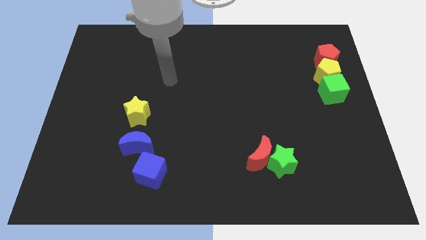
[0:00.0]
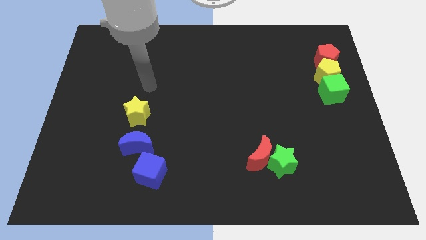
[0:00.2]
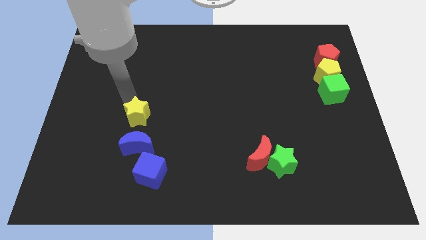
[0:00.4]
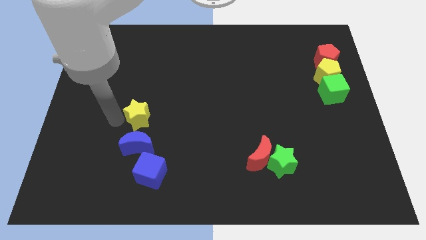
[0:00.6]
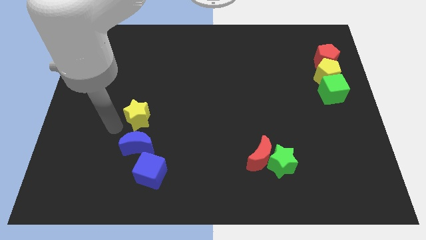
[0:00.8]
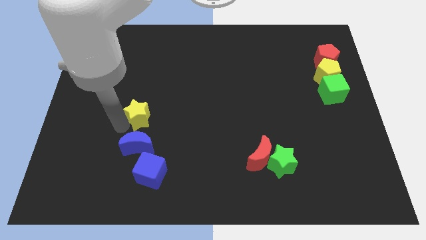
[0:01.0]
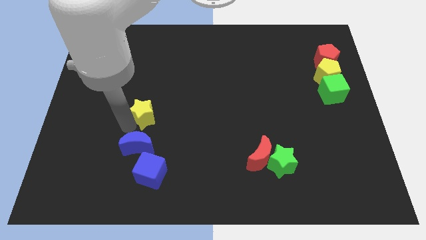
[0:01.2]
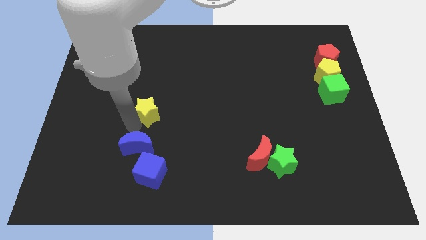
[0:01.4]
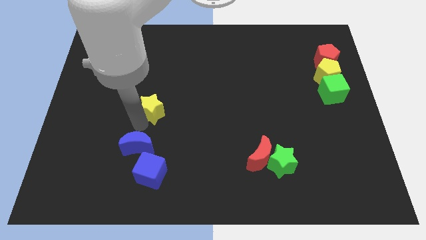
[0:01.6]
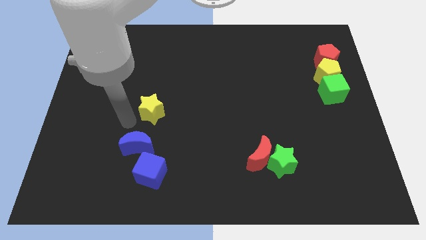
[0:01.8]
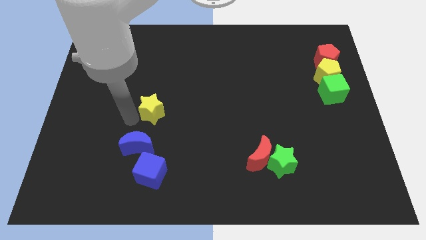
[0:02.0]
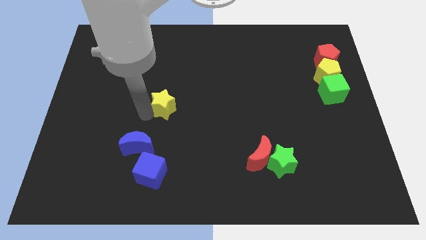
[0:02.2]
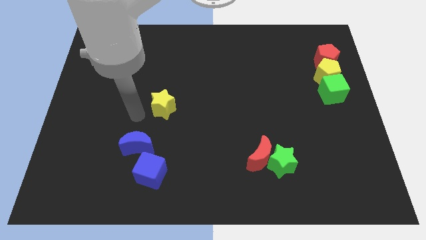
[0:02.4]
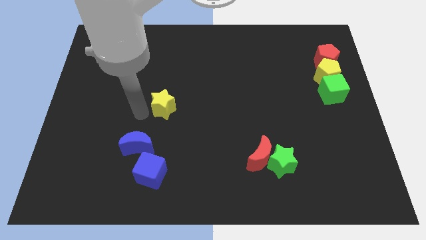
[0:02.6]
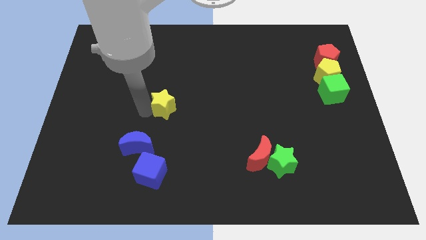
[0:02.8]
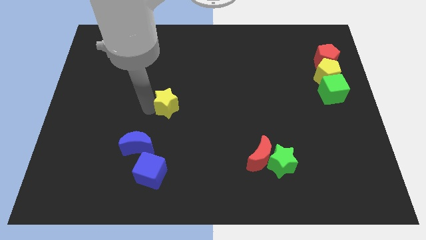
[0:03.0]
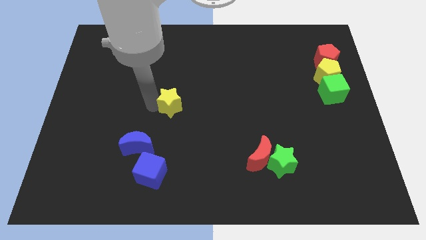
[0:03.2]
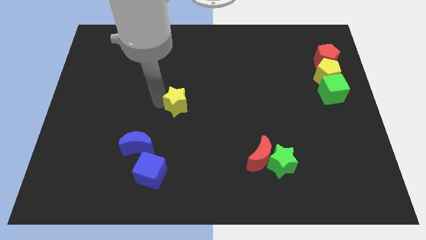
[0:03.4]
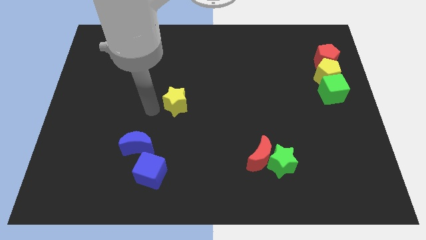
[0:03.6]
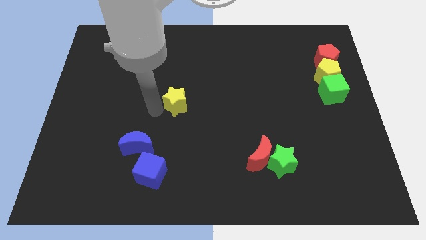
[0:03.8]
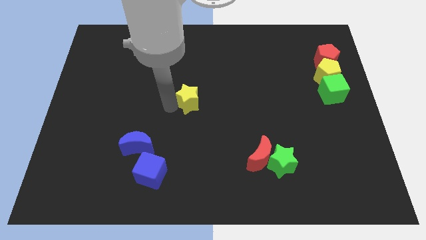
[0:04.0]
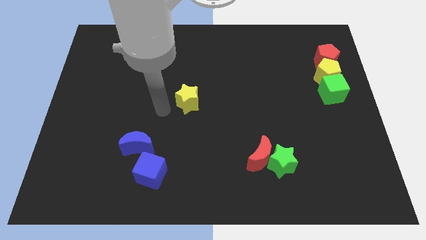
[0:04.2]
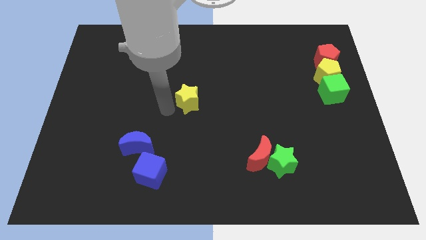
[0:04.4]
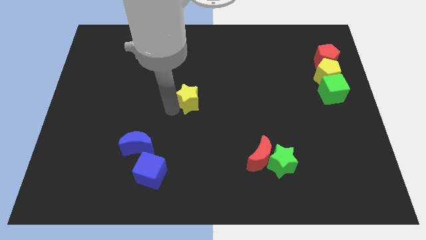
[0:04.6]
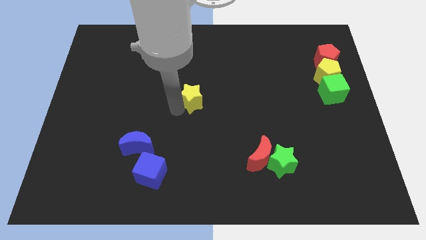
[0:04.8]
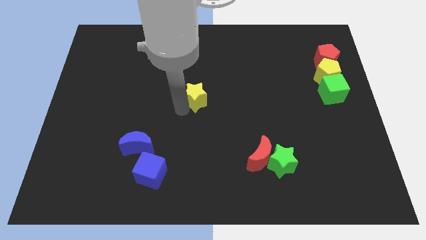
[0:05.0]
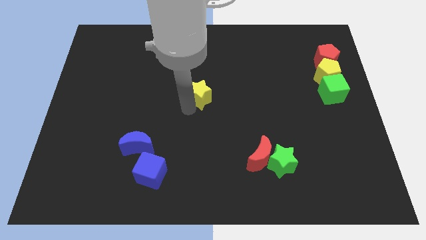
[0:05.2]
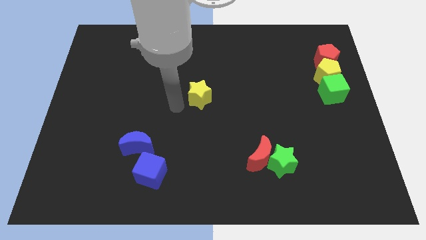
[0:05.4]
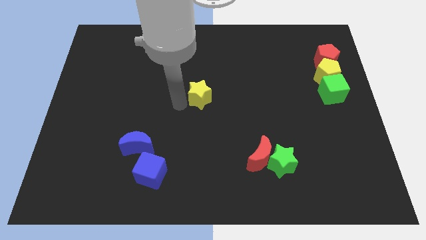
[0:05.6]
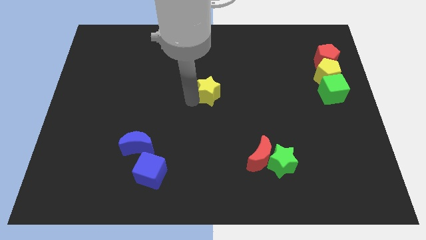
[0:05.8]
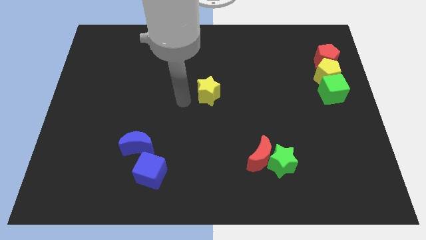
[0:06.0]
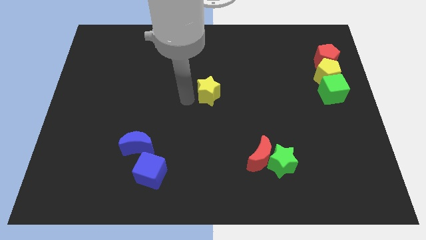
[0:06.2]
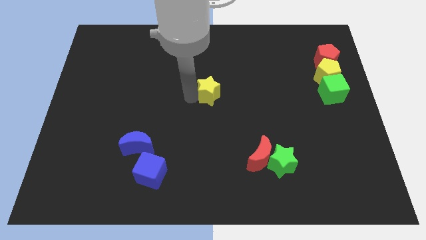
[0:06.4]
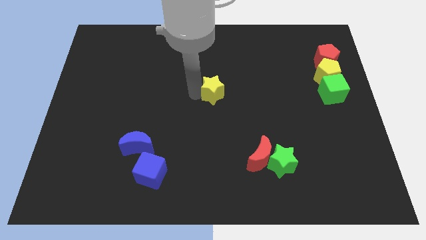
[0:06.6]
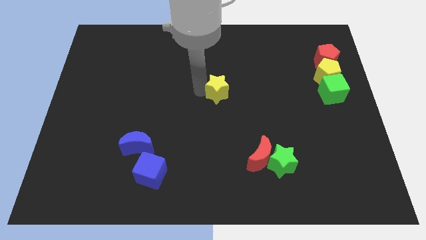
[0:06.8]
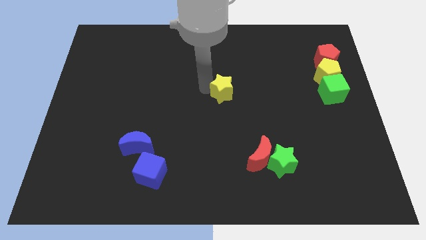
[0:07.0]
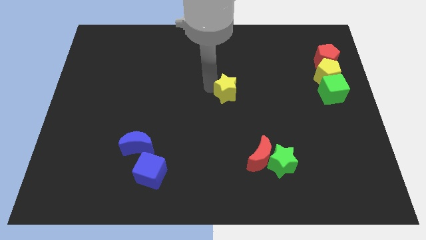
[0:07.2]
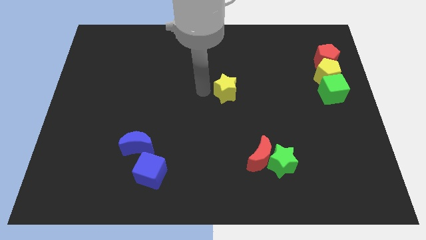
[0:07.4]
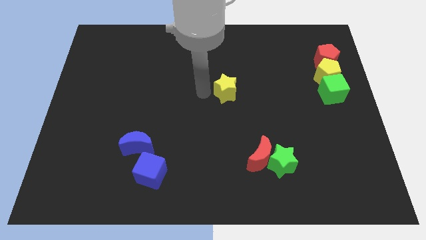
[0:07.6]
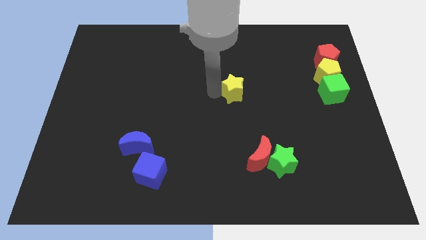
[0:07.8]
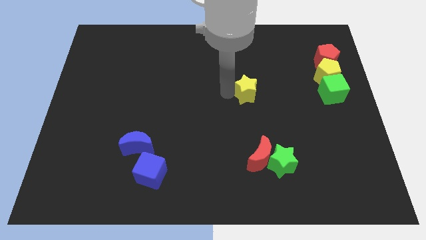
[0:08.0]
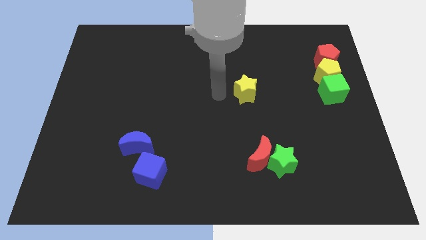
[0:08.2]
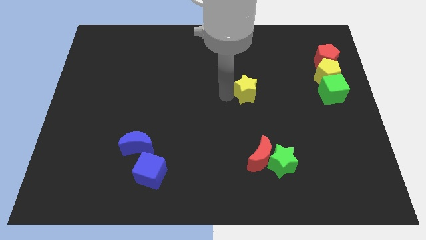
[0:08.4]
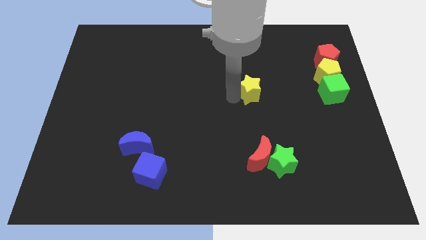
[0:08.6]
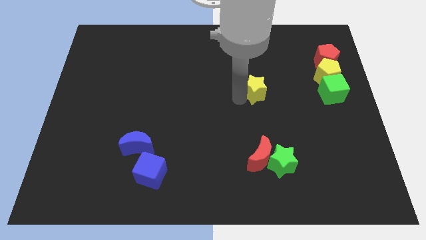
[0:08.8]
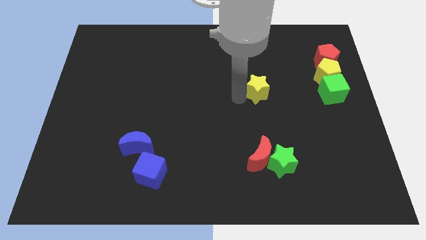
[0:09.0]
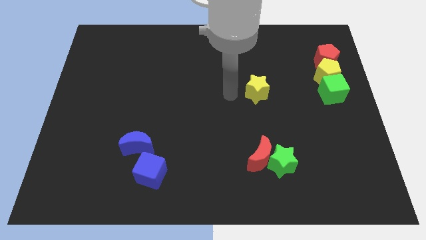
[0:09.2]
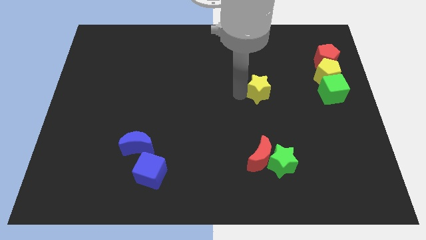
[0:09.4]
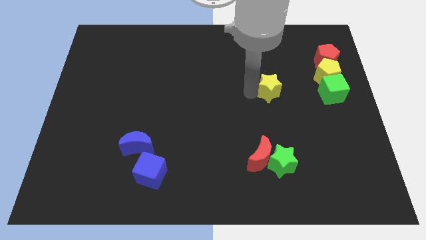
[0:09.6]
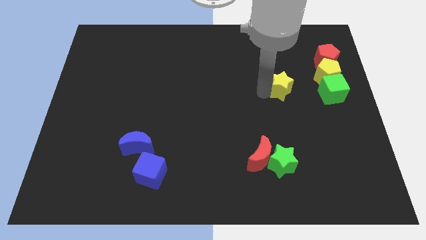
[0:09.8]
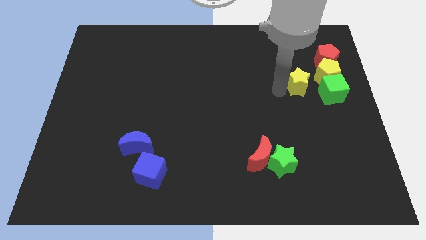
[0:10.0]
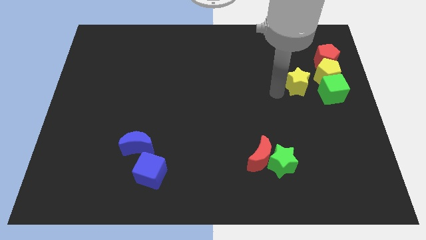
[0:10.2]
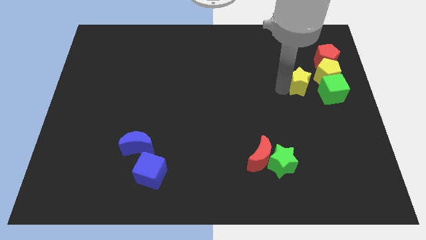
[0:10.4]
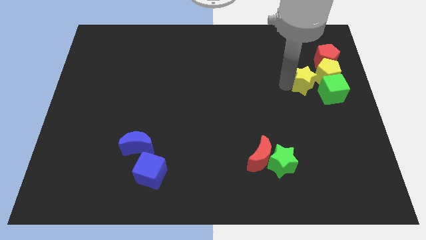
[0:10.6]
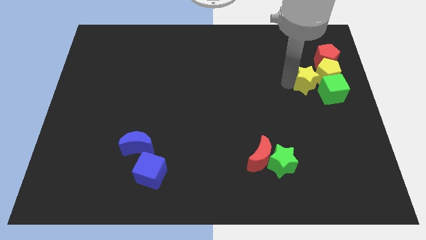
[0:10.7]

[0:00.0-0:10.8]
slide the yellow star towards the yellow pentagon

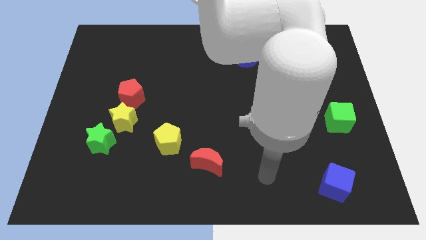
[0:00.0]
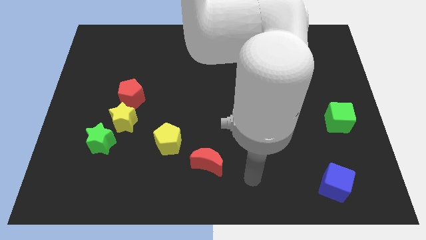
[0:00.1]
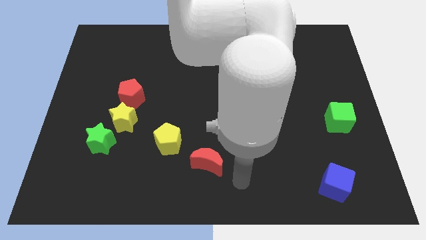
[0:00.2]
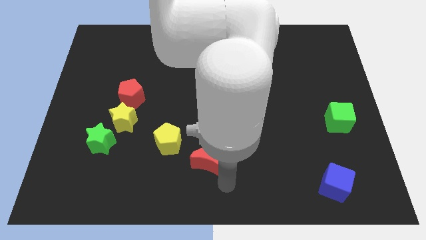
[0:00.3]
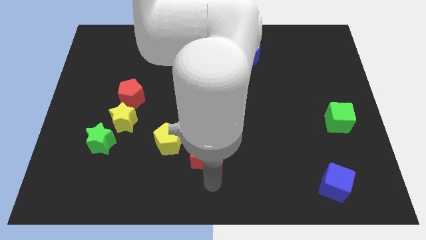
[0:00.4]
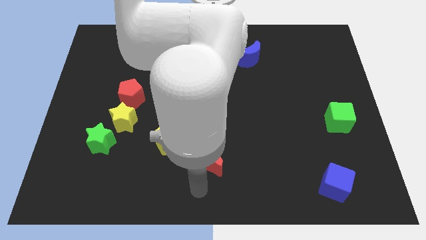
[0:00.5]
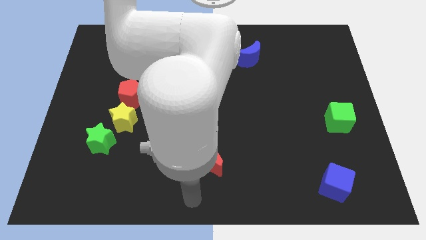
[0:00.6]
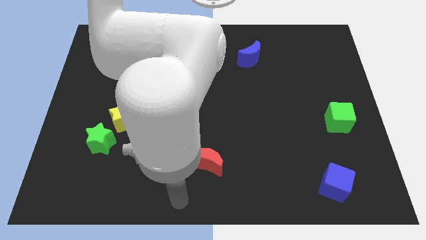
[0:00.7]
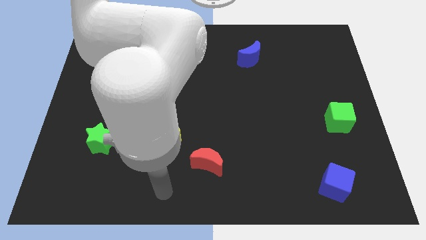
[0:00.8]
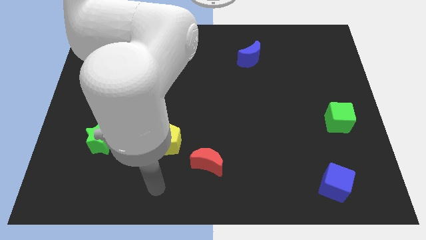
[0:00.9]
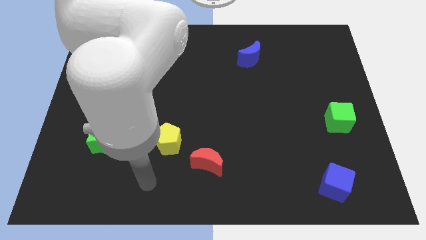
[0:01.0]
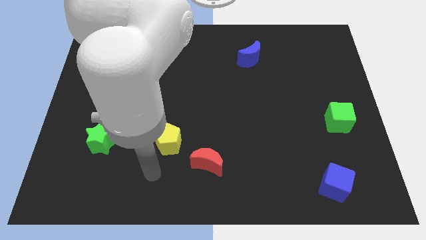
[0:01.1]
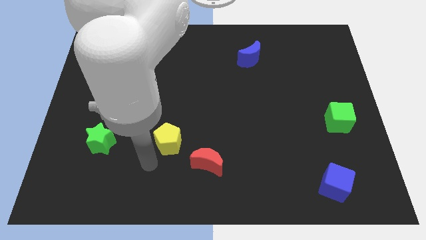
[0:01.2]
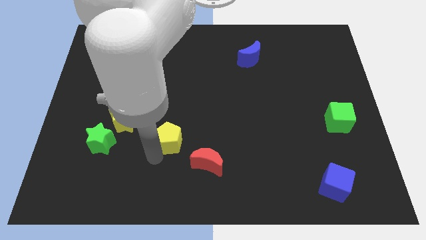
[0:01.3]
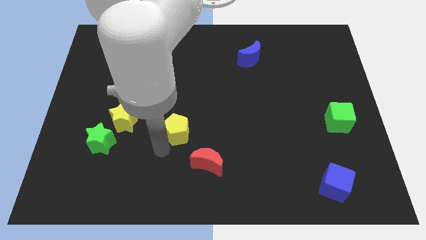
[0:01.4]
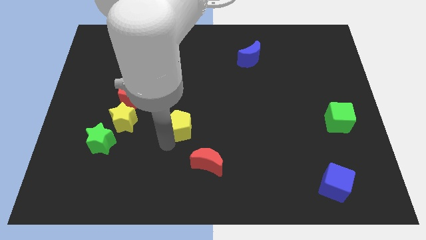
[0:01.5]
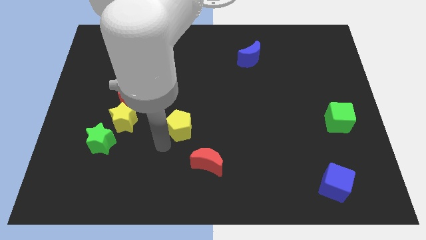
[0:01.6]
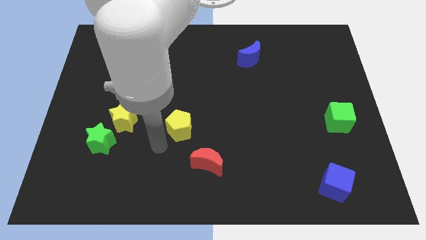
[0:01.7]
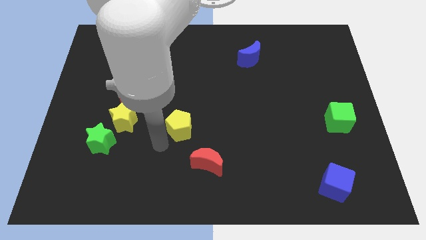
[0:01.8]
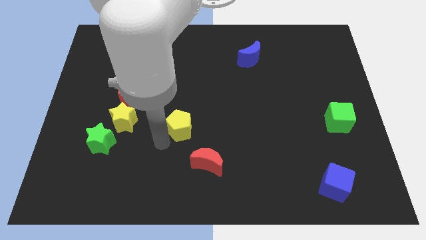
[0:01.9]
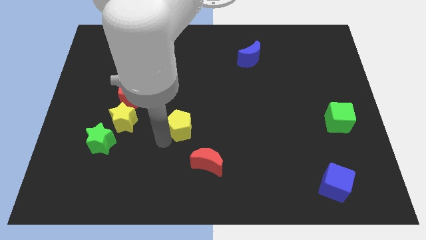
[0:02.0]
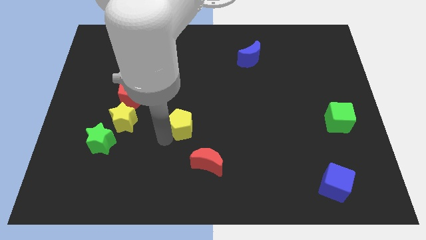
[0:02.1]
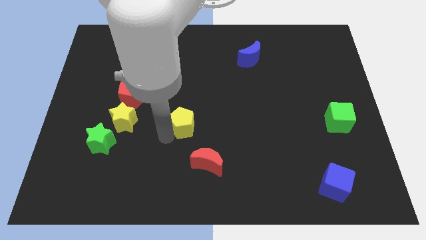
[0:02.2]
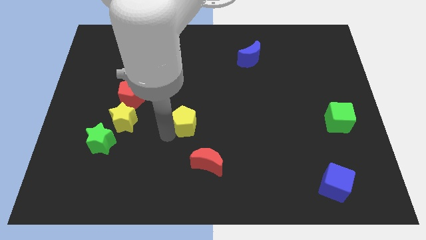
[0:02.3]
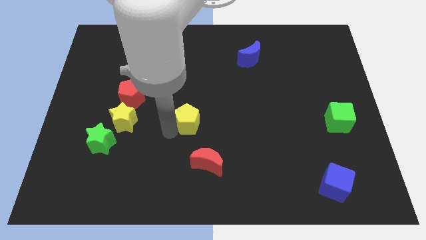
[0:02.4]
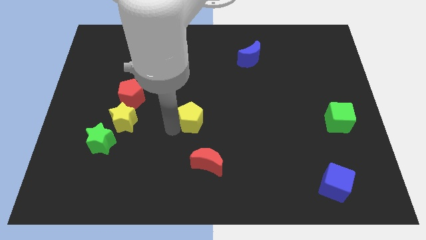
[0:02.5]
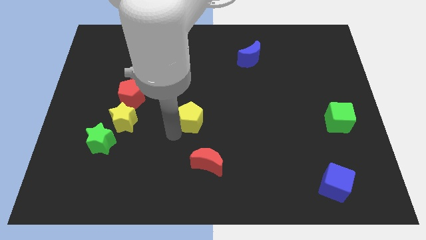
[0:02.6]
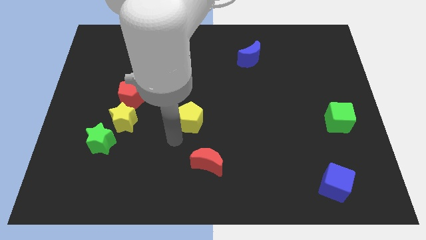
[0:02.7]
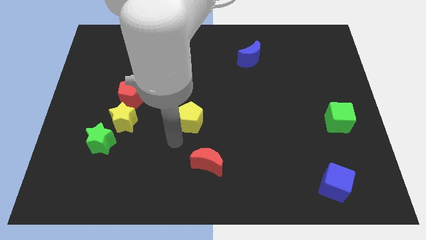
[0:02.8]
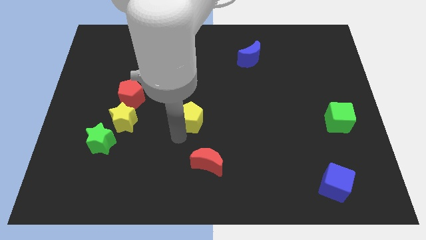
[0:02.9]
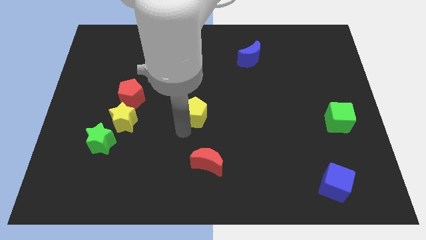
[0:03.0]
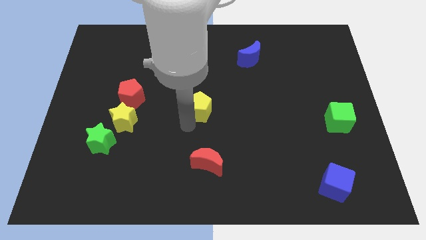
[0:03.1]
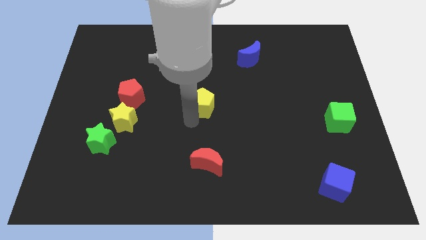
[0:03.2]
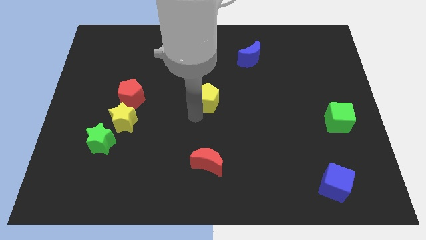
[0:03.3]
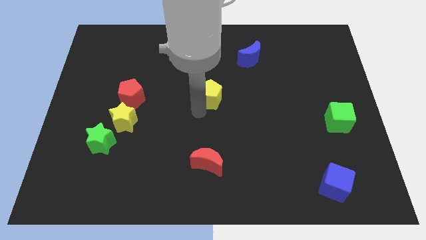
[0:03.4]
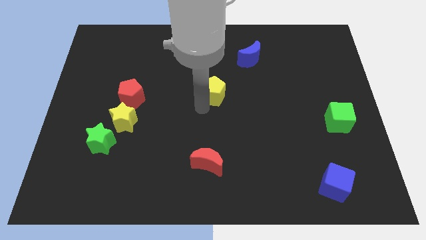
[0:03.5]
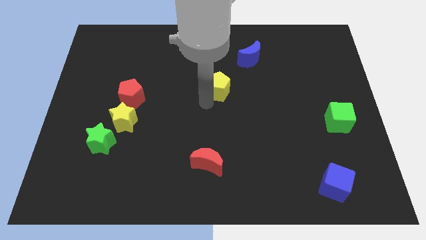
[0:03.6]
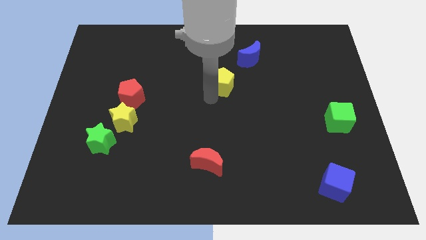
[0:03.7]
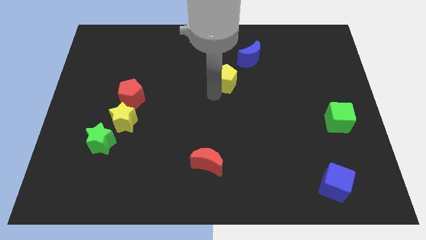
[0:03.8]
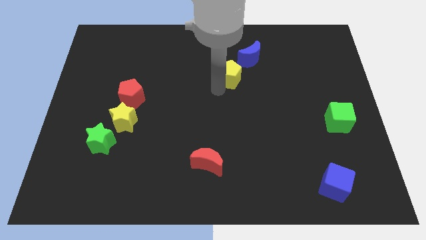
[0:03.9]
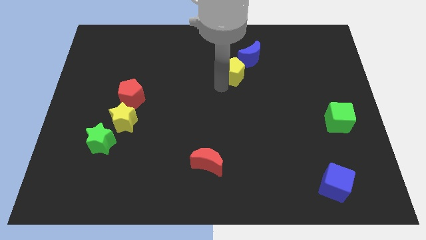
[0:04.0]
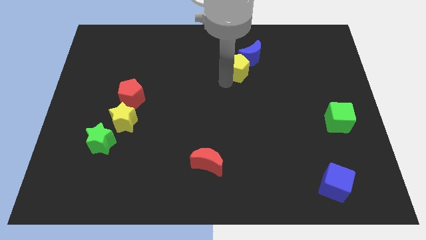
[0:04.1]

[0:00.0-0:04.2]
slide the yellow pentagon close to the blue moon
